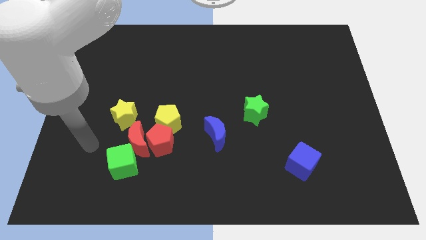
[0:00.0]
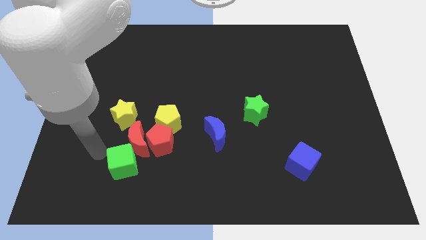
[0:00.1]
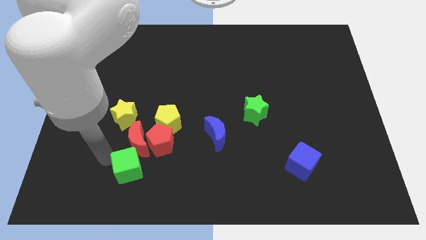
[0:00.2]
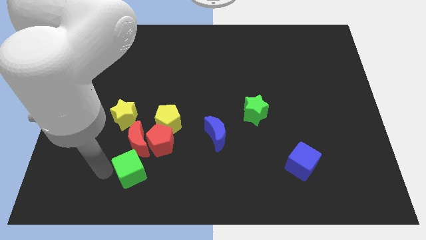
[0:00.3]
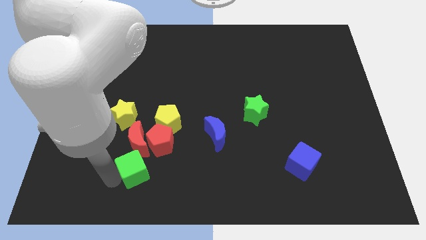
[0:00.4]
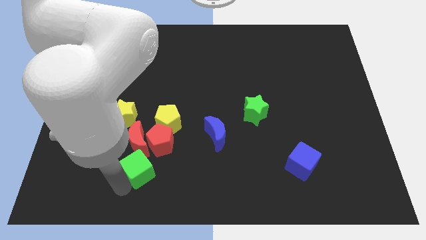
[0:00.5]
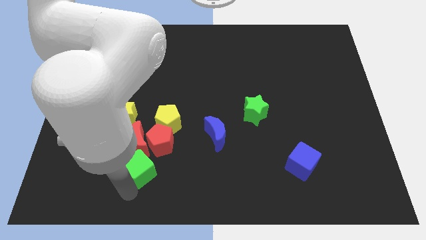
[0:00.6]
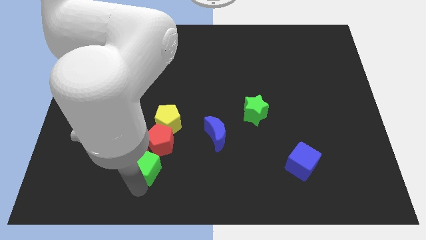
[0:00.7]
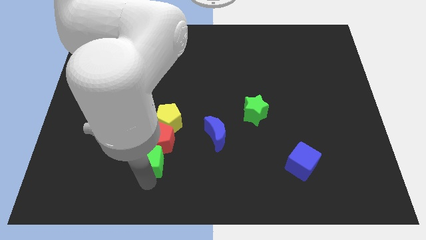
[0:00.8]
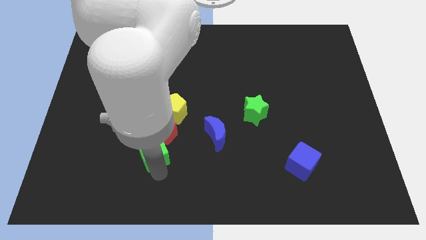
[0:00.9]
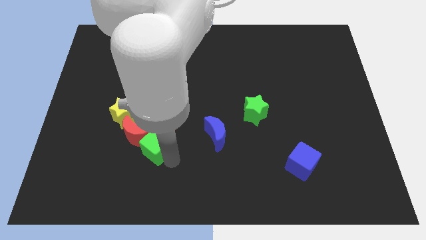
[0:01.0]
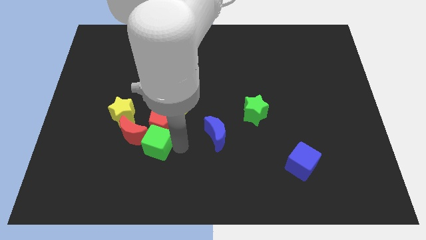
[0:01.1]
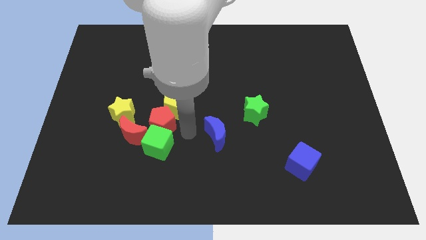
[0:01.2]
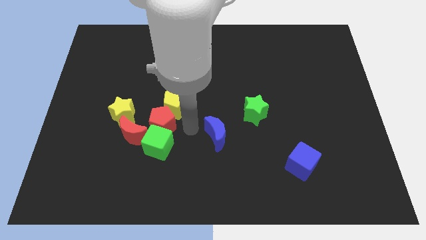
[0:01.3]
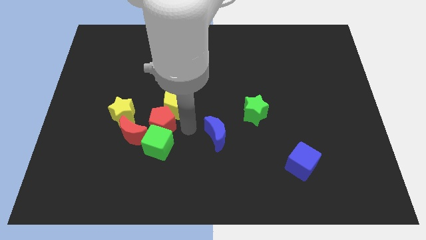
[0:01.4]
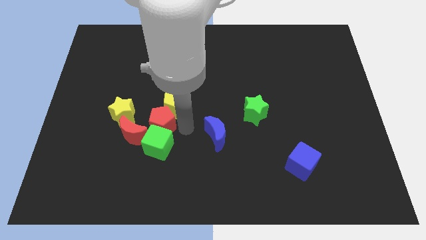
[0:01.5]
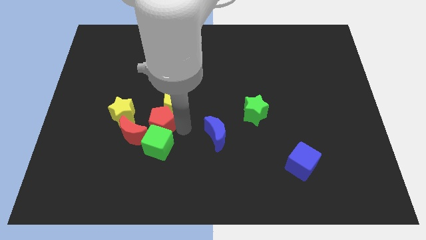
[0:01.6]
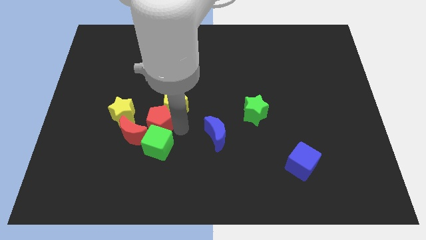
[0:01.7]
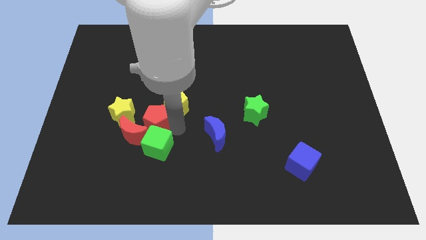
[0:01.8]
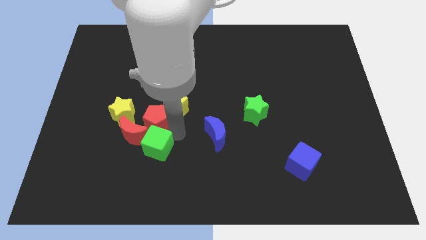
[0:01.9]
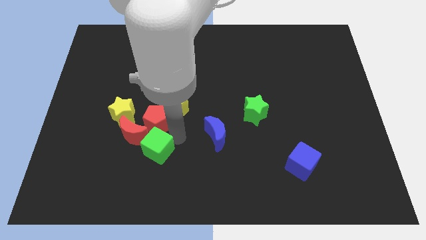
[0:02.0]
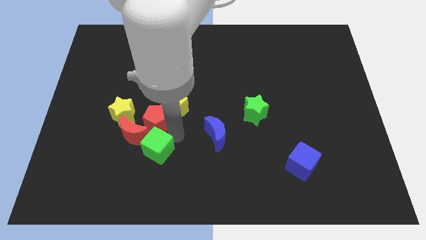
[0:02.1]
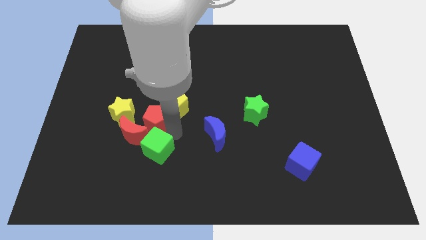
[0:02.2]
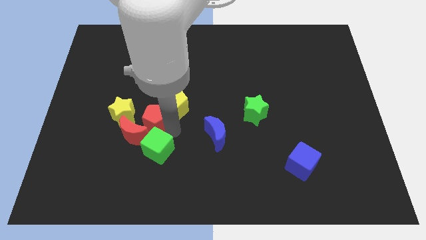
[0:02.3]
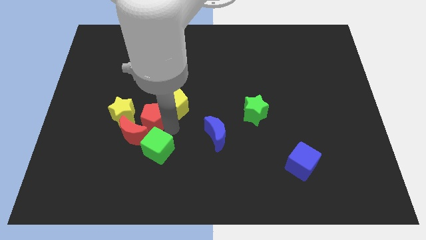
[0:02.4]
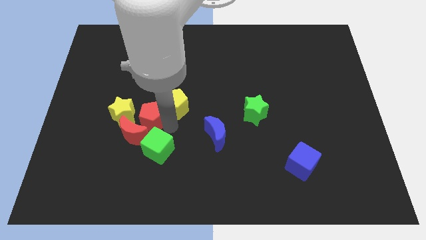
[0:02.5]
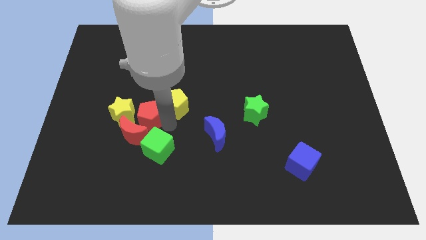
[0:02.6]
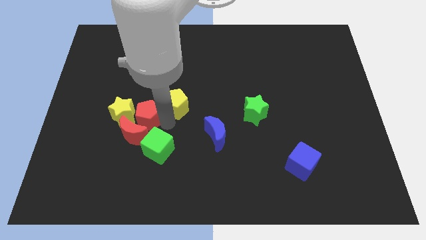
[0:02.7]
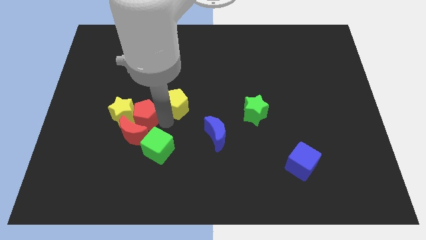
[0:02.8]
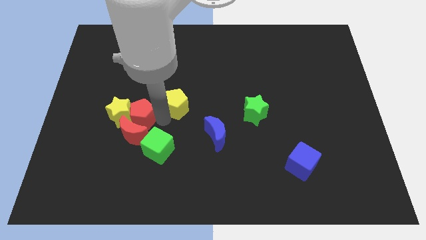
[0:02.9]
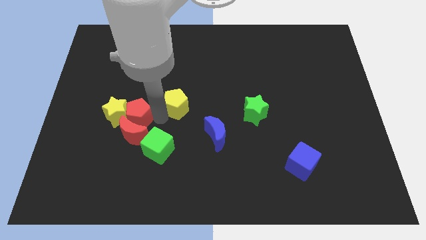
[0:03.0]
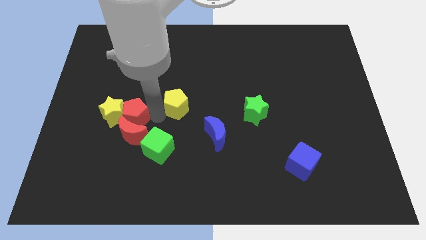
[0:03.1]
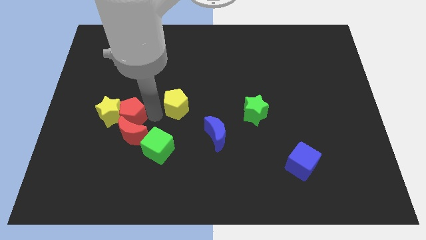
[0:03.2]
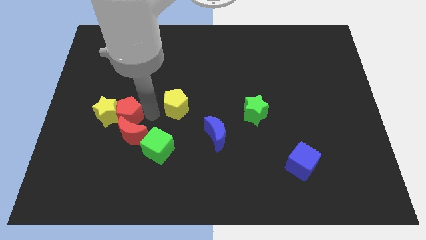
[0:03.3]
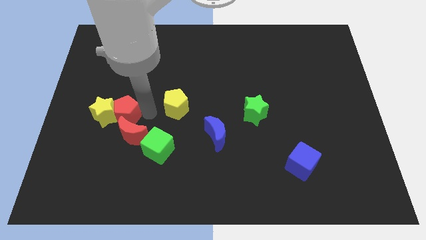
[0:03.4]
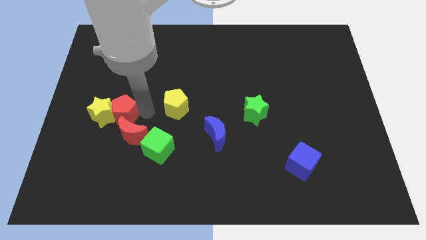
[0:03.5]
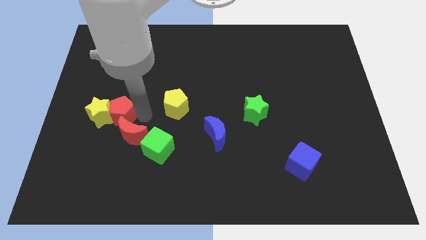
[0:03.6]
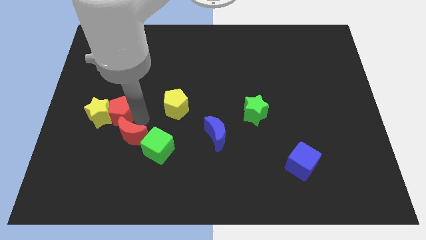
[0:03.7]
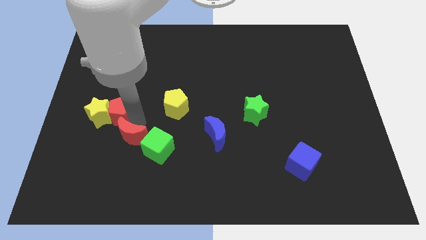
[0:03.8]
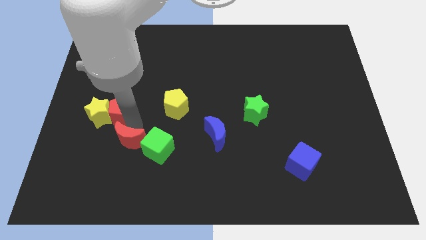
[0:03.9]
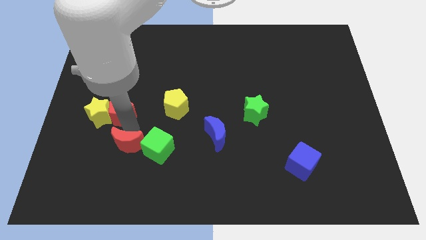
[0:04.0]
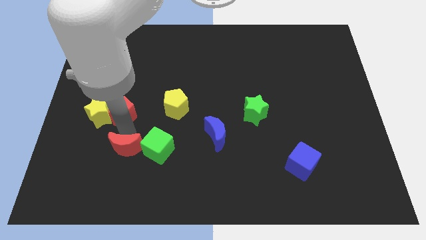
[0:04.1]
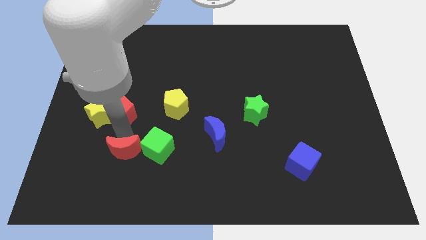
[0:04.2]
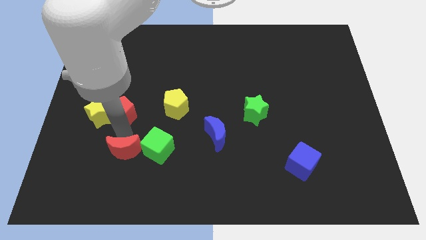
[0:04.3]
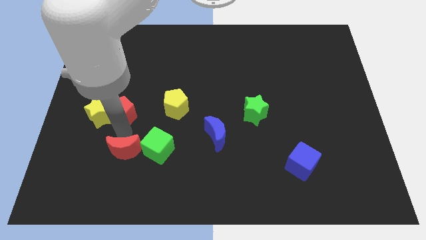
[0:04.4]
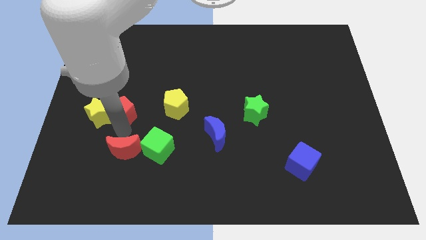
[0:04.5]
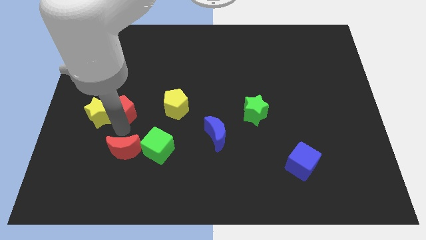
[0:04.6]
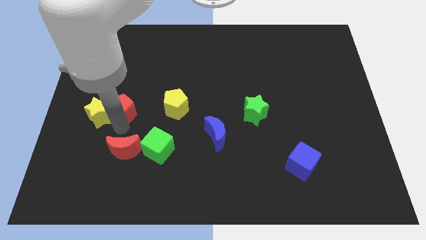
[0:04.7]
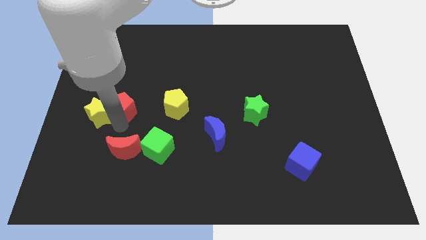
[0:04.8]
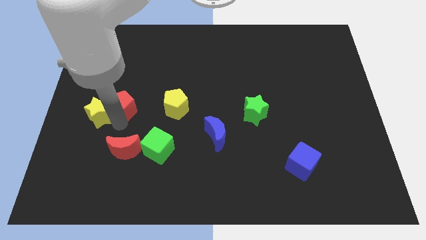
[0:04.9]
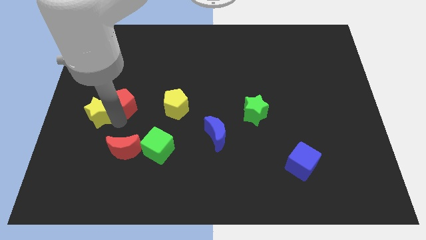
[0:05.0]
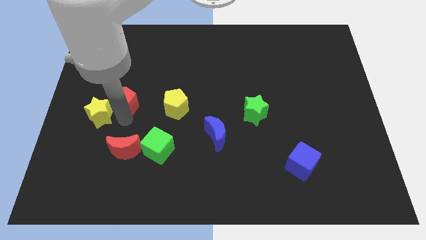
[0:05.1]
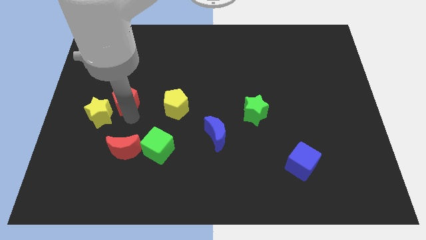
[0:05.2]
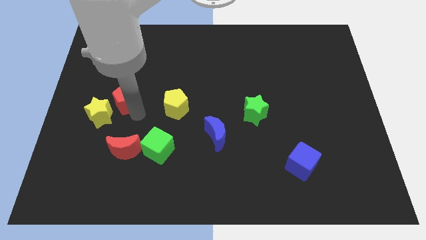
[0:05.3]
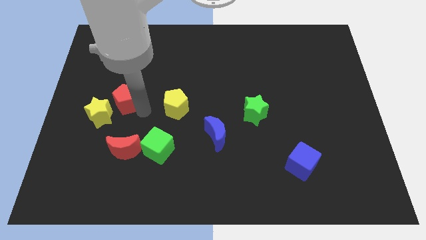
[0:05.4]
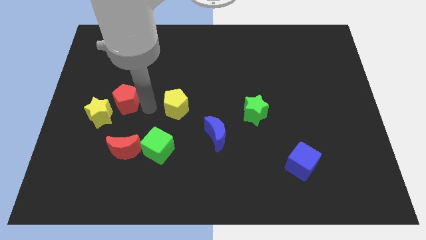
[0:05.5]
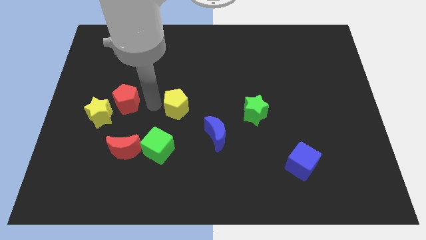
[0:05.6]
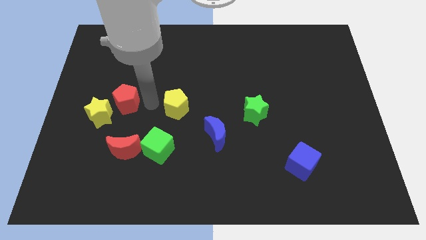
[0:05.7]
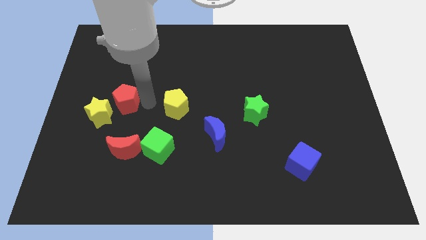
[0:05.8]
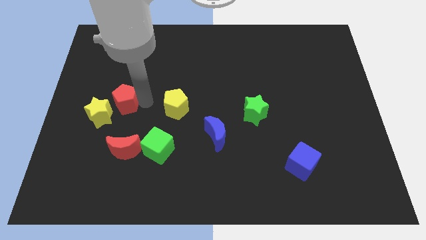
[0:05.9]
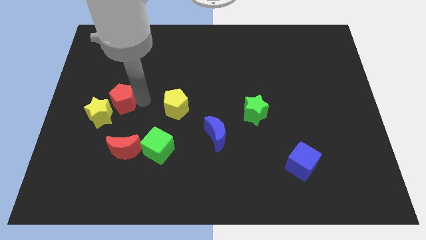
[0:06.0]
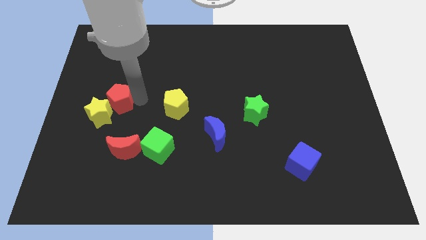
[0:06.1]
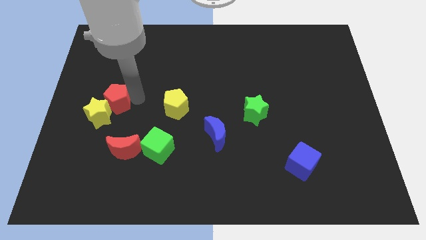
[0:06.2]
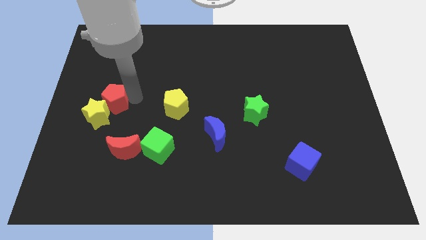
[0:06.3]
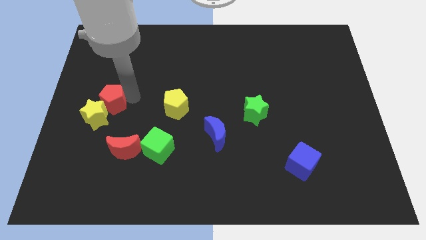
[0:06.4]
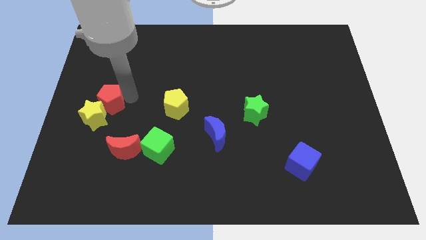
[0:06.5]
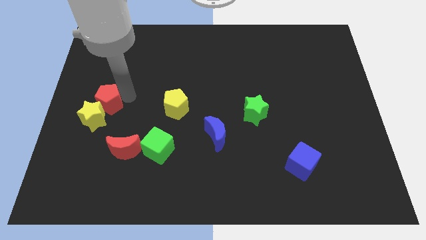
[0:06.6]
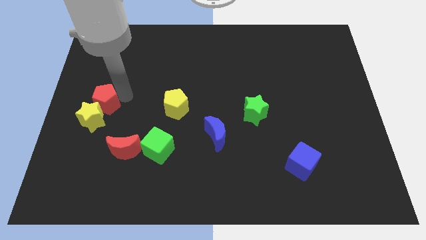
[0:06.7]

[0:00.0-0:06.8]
move the red pentagon to the left side of the board
